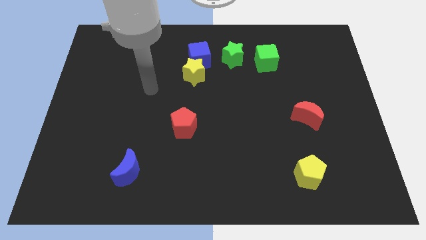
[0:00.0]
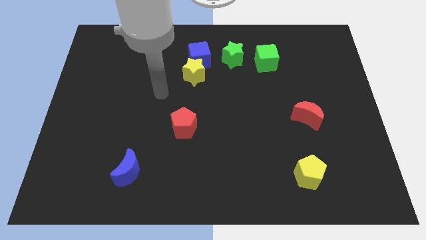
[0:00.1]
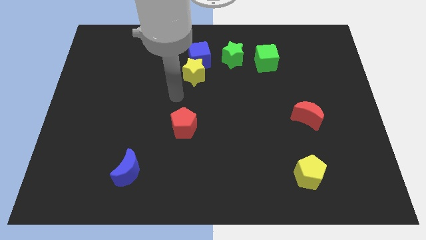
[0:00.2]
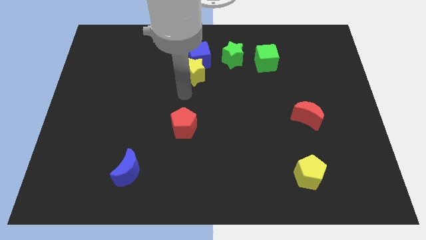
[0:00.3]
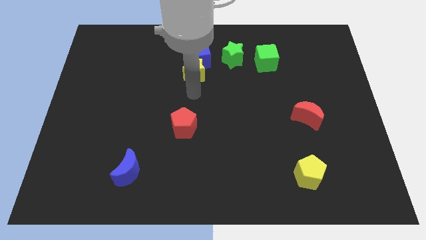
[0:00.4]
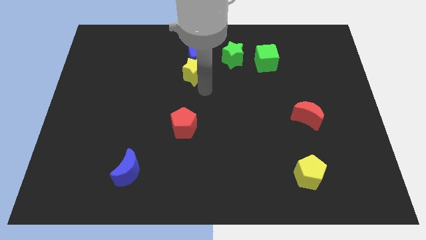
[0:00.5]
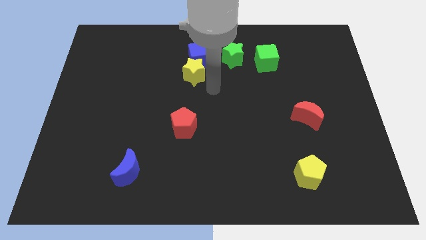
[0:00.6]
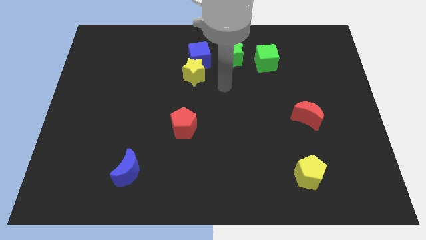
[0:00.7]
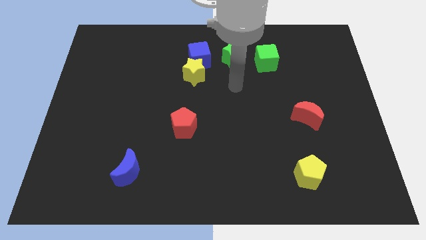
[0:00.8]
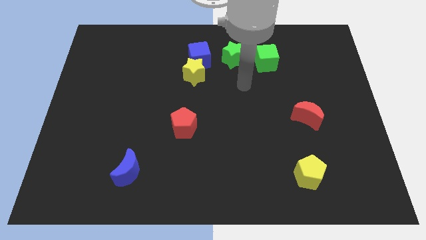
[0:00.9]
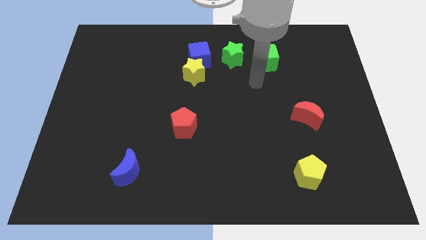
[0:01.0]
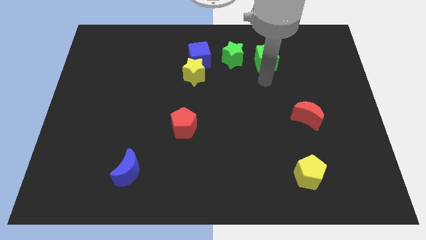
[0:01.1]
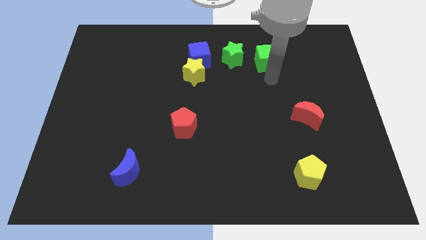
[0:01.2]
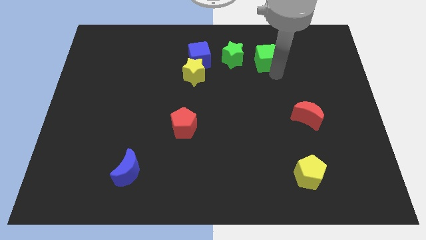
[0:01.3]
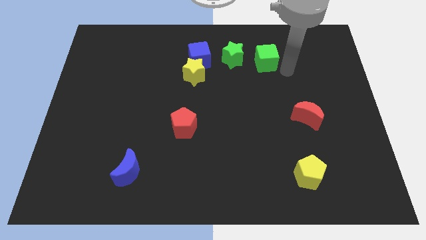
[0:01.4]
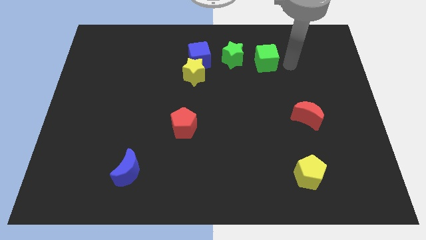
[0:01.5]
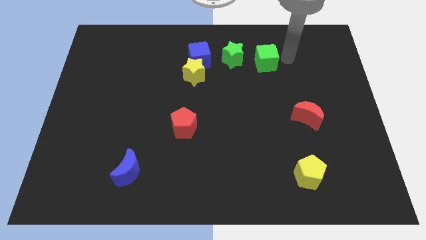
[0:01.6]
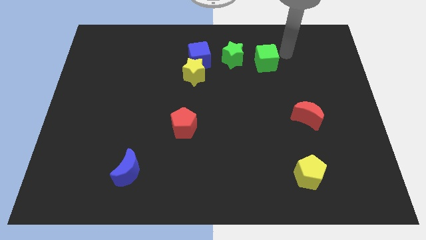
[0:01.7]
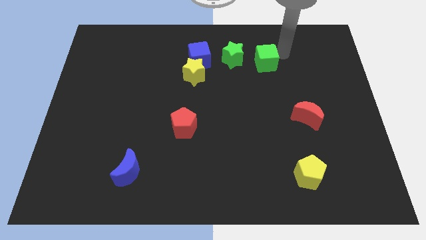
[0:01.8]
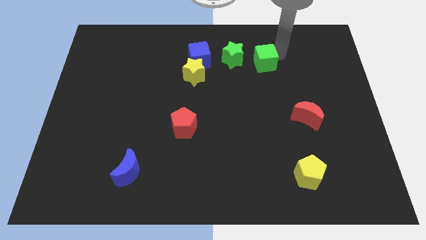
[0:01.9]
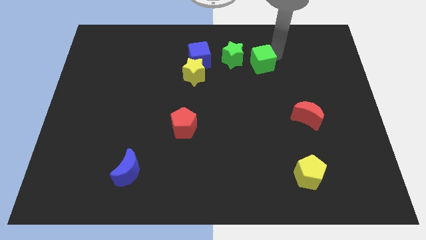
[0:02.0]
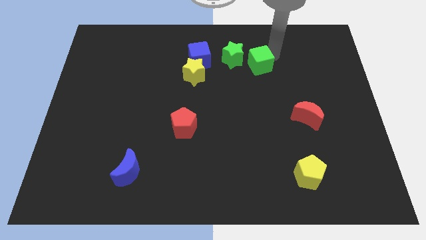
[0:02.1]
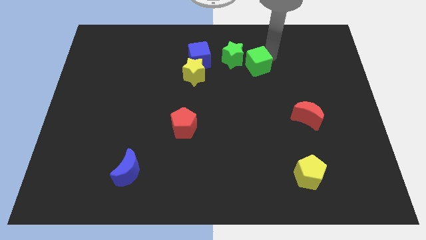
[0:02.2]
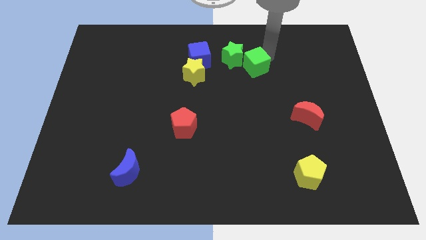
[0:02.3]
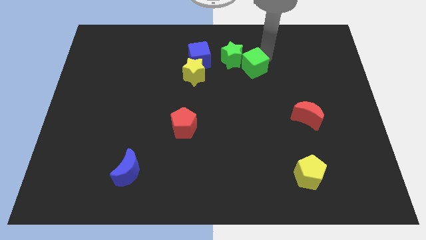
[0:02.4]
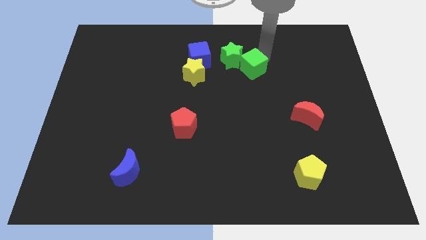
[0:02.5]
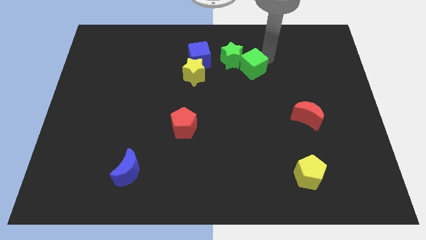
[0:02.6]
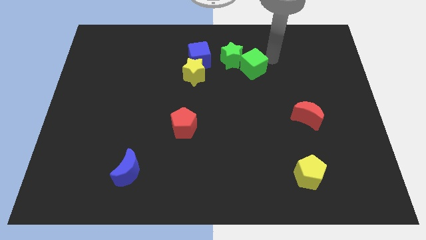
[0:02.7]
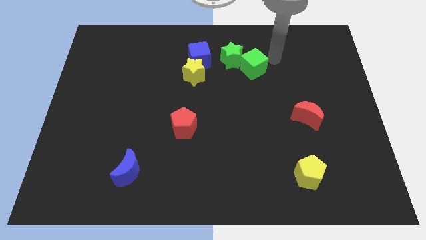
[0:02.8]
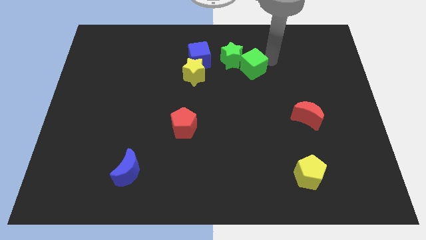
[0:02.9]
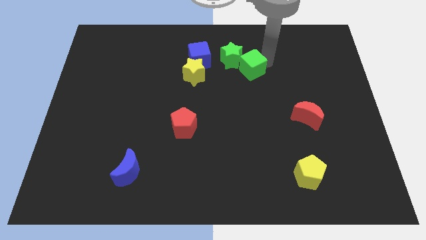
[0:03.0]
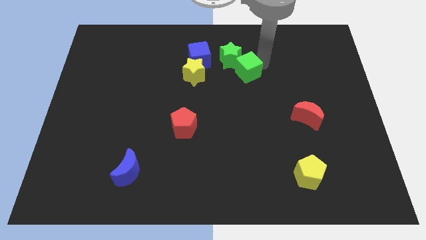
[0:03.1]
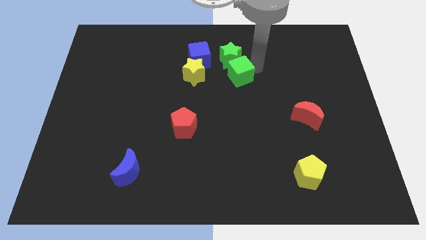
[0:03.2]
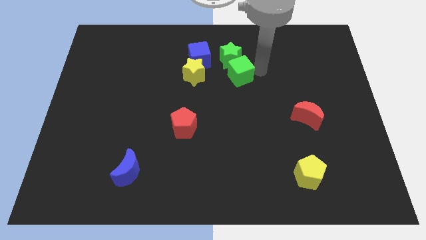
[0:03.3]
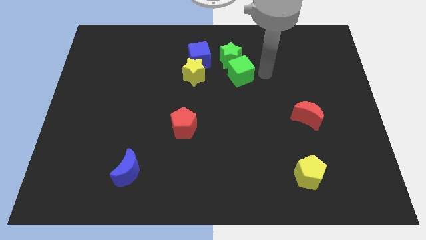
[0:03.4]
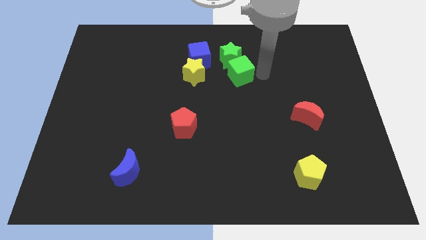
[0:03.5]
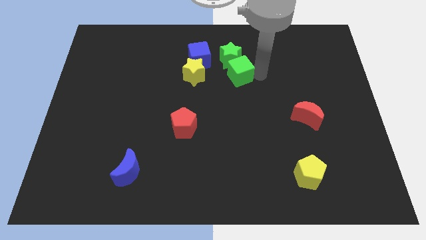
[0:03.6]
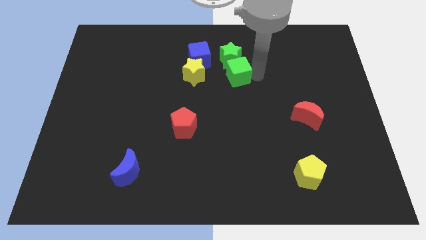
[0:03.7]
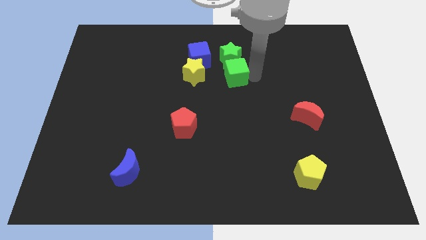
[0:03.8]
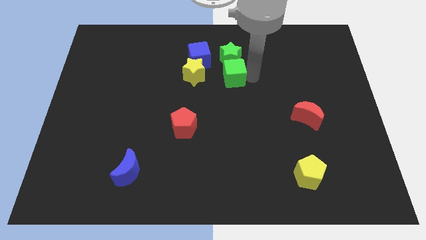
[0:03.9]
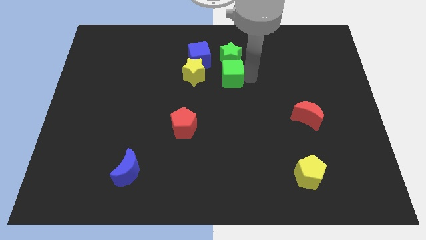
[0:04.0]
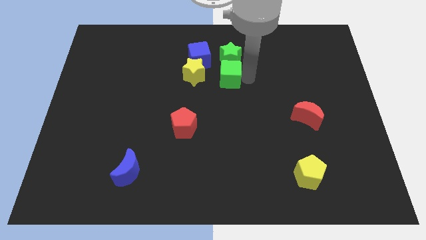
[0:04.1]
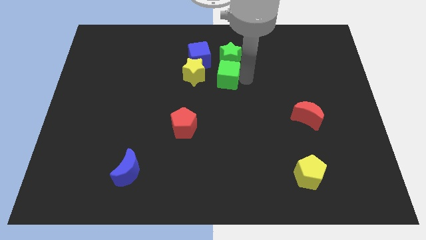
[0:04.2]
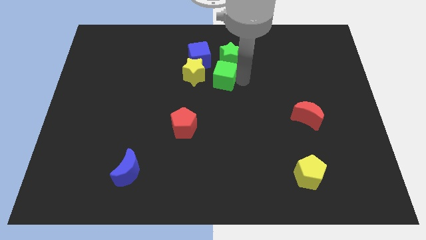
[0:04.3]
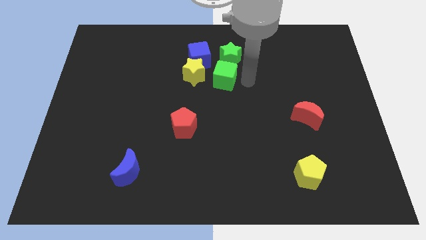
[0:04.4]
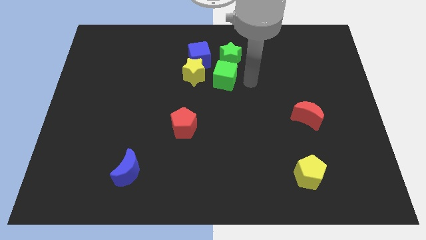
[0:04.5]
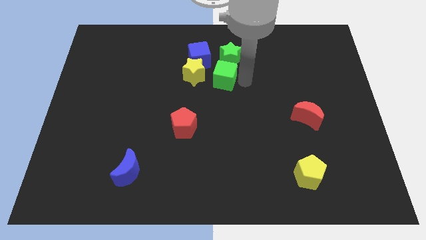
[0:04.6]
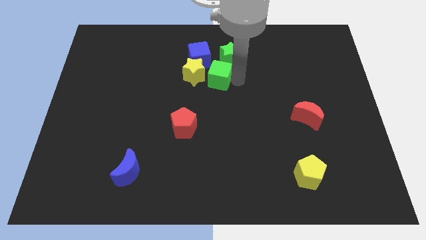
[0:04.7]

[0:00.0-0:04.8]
push the green cube to the yellow star

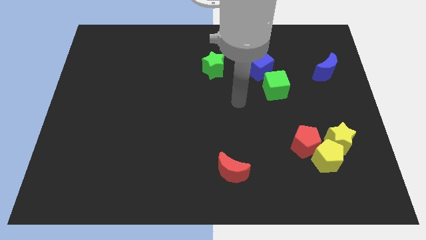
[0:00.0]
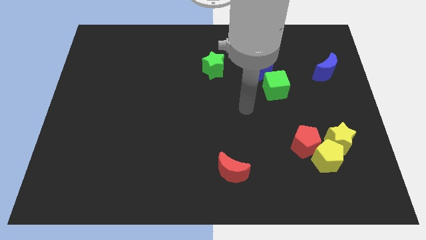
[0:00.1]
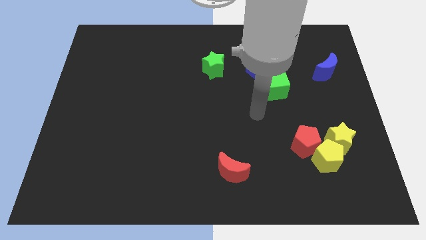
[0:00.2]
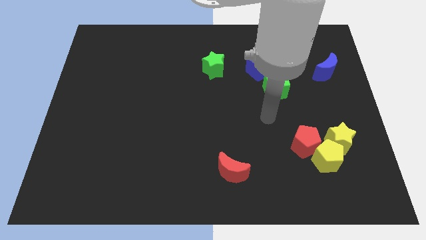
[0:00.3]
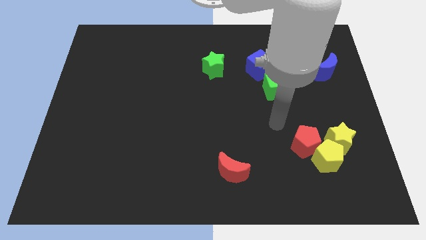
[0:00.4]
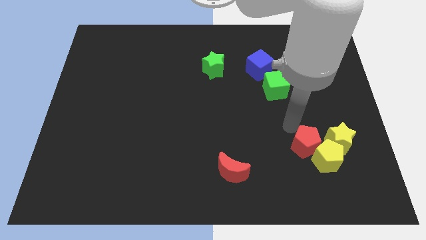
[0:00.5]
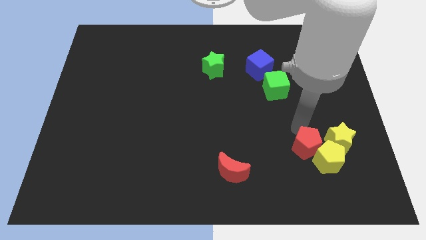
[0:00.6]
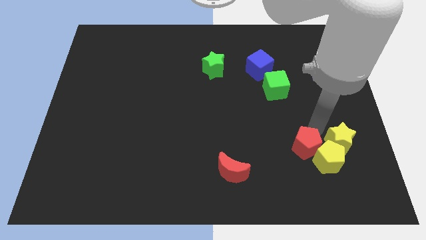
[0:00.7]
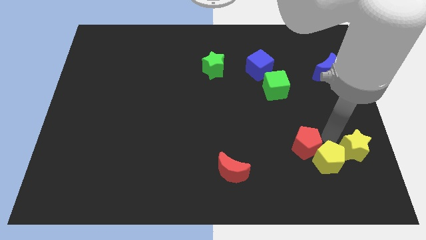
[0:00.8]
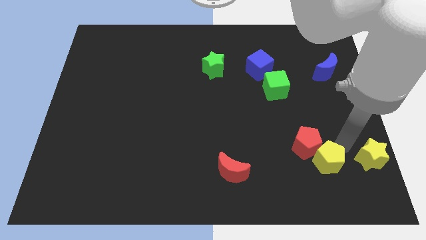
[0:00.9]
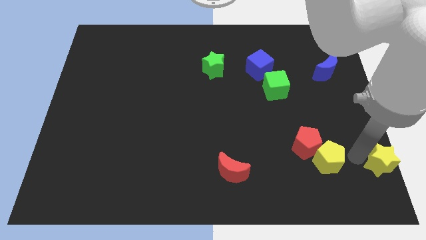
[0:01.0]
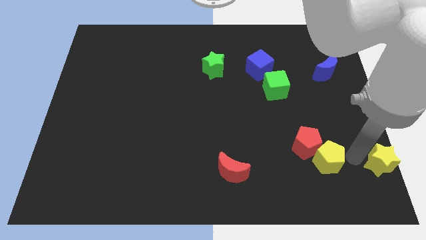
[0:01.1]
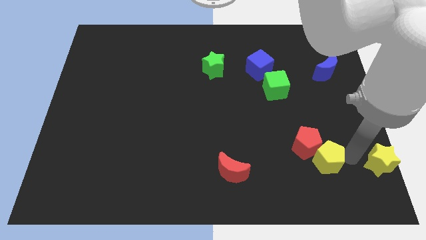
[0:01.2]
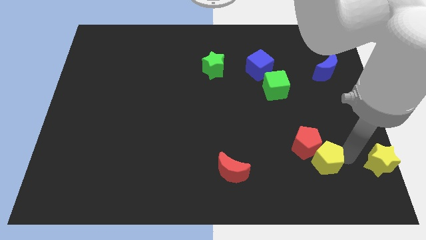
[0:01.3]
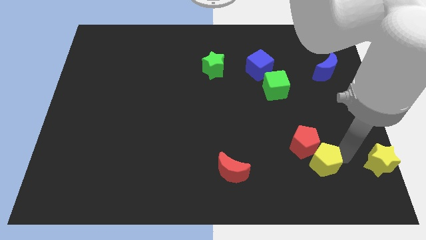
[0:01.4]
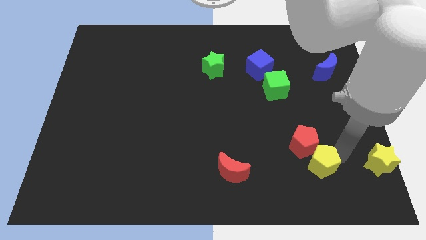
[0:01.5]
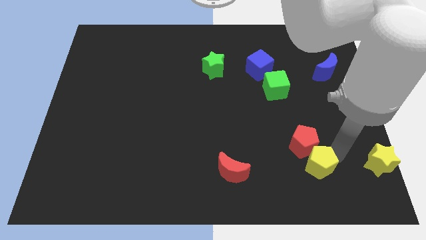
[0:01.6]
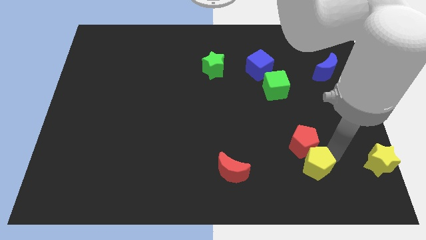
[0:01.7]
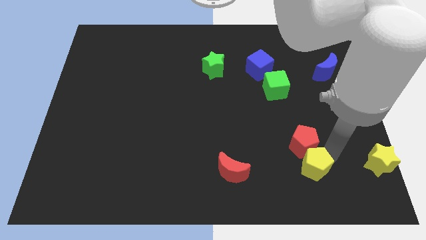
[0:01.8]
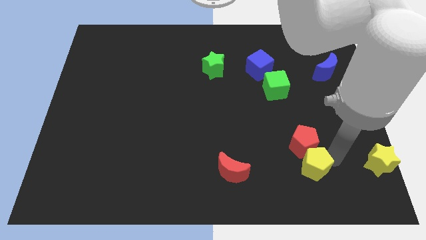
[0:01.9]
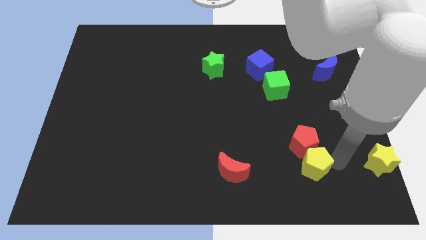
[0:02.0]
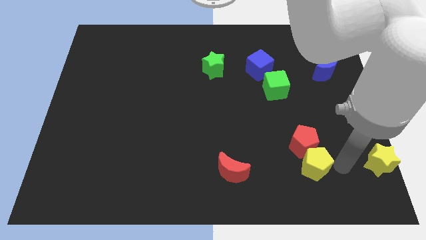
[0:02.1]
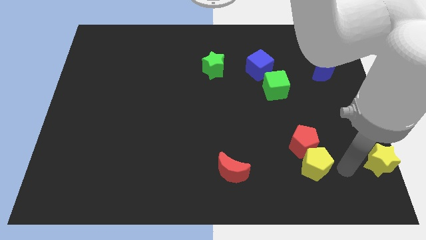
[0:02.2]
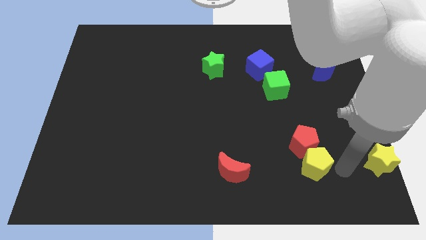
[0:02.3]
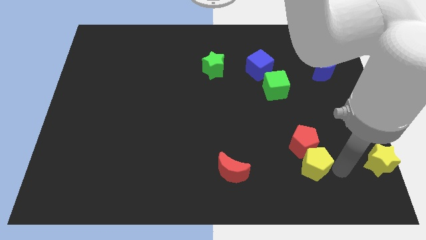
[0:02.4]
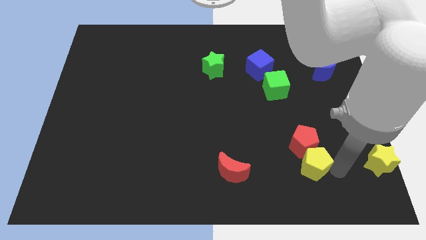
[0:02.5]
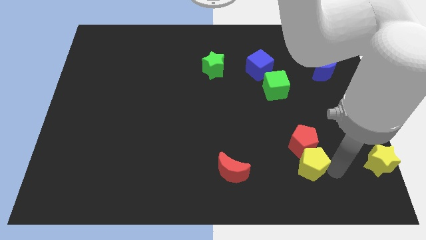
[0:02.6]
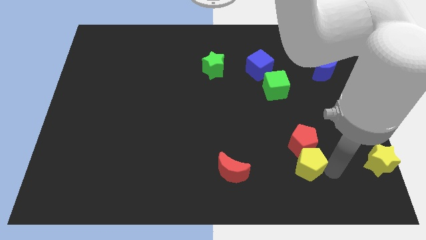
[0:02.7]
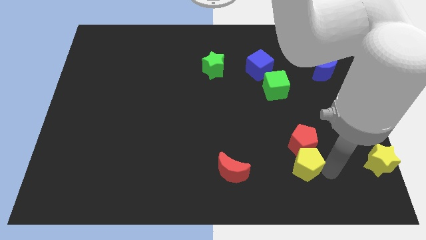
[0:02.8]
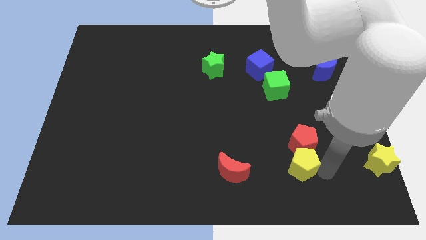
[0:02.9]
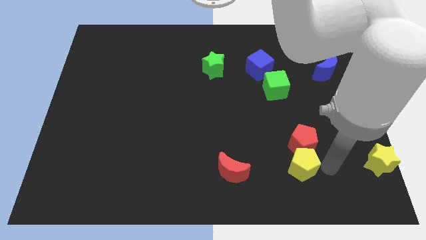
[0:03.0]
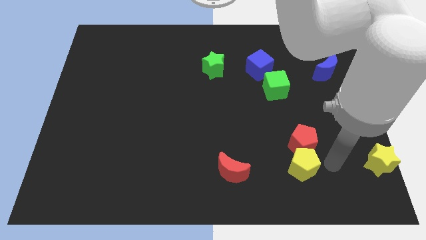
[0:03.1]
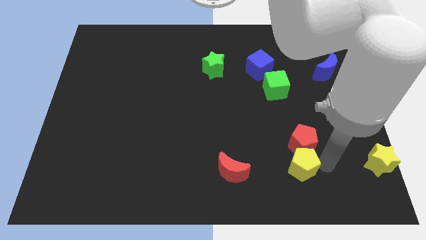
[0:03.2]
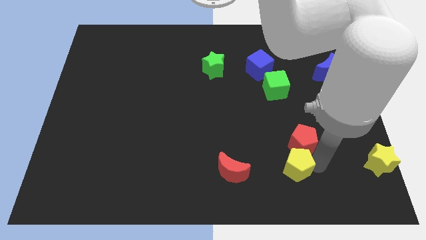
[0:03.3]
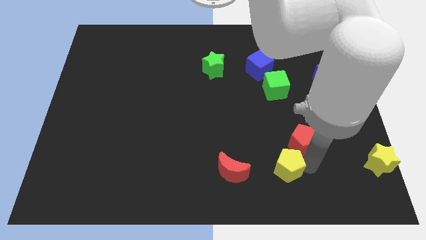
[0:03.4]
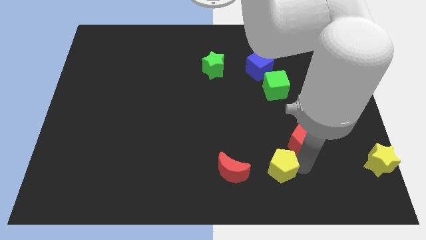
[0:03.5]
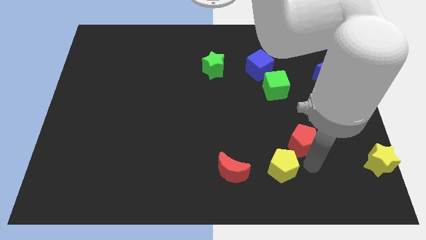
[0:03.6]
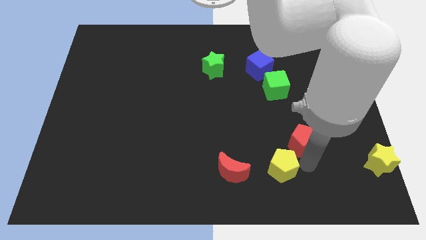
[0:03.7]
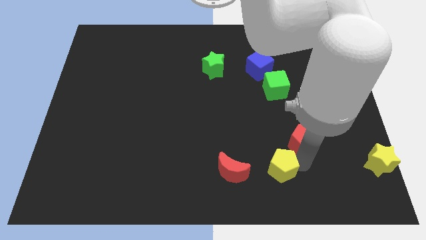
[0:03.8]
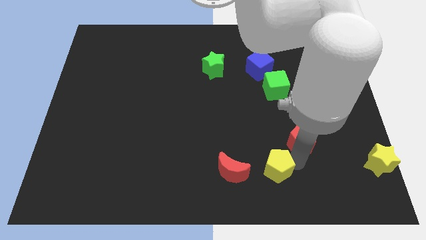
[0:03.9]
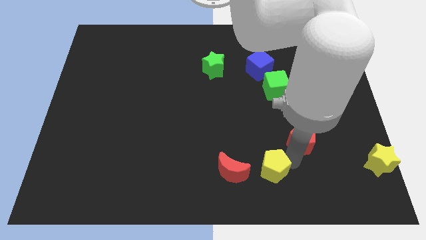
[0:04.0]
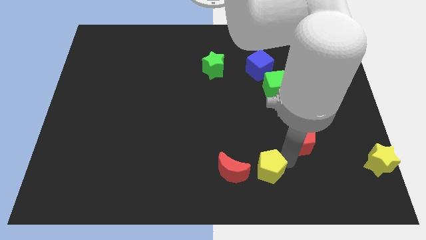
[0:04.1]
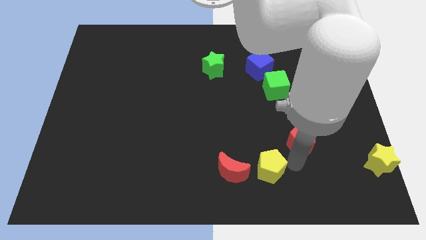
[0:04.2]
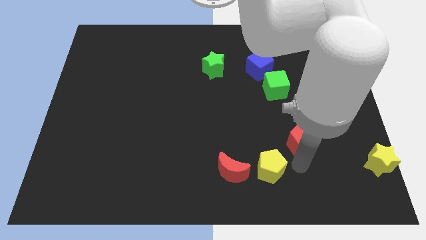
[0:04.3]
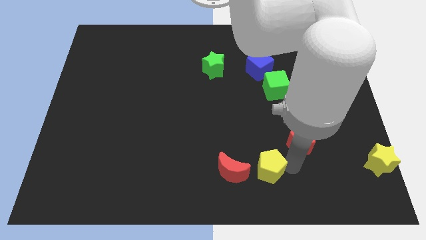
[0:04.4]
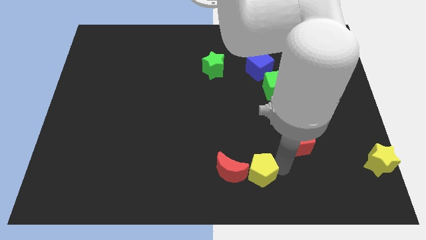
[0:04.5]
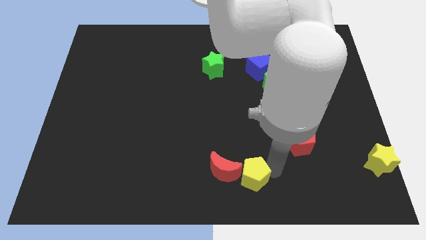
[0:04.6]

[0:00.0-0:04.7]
put the yellow pentagon to the red moon
